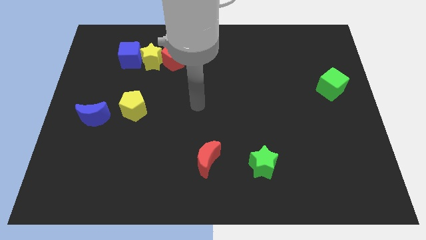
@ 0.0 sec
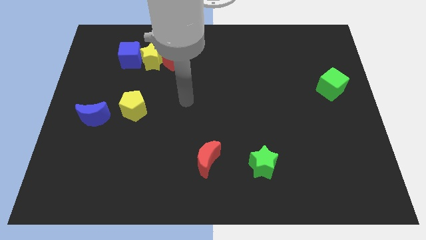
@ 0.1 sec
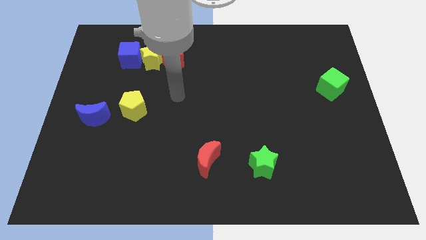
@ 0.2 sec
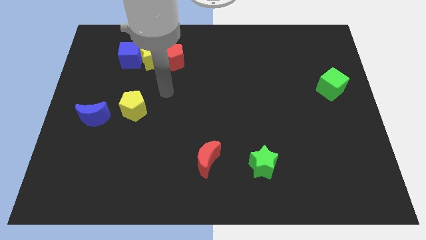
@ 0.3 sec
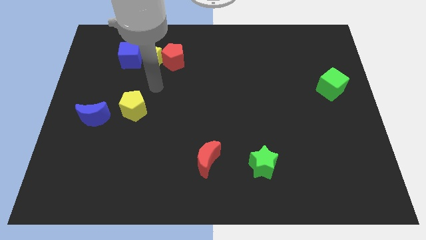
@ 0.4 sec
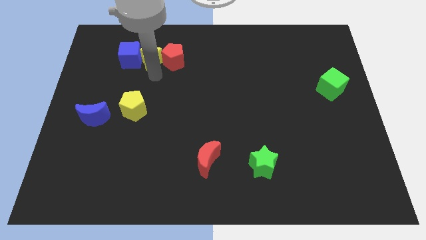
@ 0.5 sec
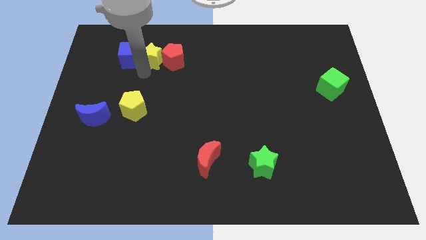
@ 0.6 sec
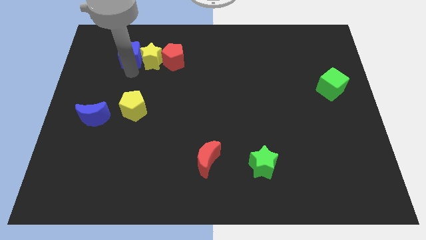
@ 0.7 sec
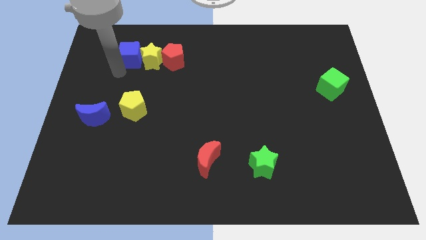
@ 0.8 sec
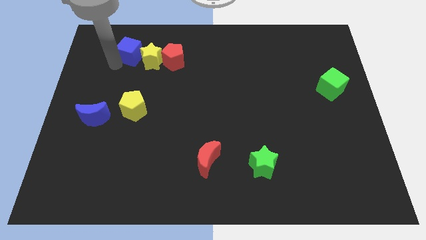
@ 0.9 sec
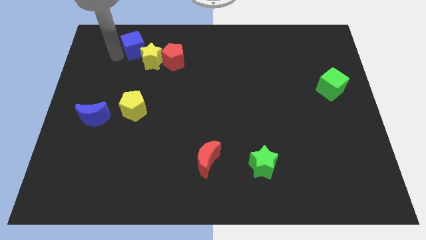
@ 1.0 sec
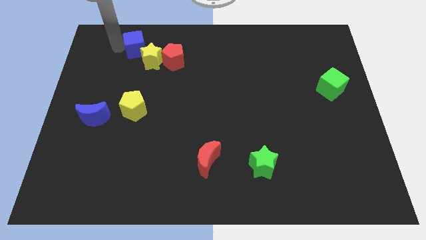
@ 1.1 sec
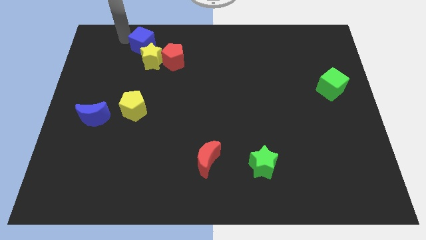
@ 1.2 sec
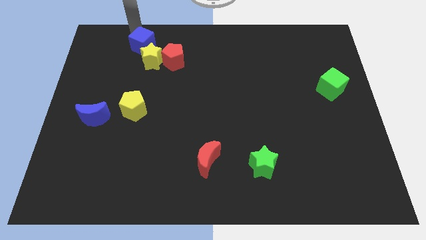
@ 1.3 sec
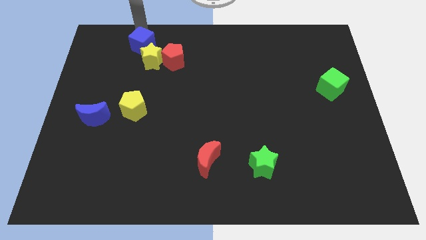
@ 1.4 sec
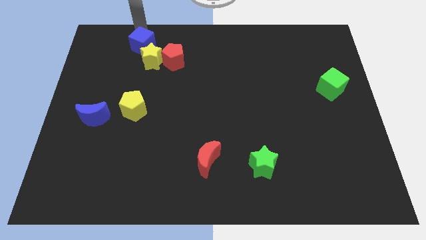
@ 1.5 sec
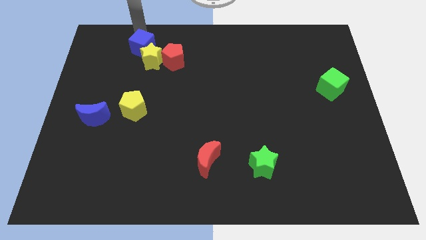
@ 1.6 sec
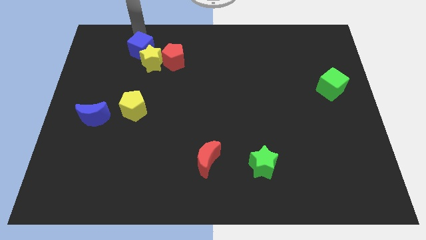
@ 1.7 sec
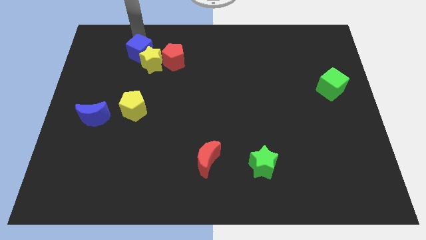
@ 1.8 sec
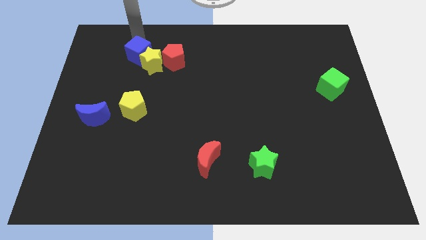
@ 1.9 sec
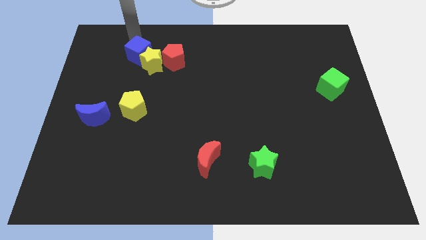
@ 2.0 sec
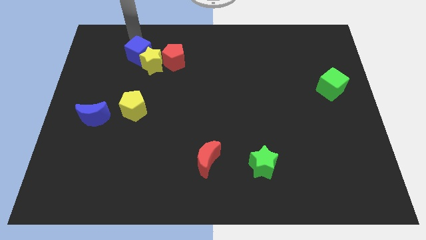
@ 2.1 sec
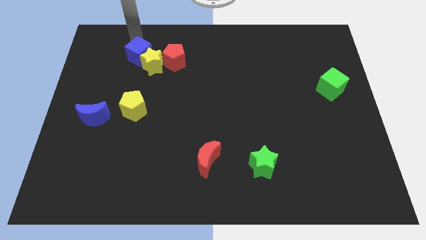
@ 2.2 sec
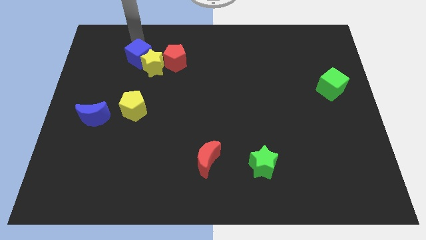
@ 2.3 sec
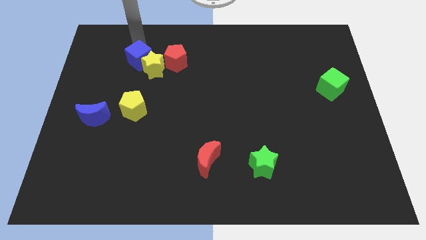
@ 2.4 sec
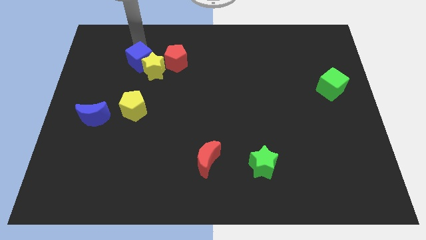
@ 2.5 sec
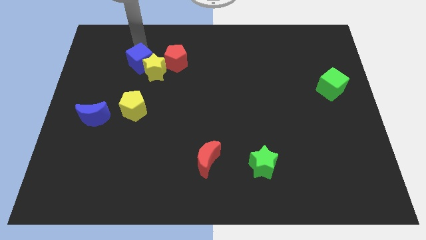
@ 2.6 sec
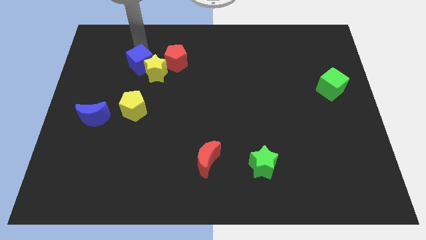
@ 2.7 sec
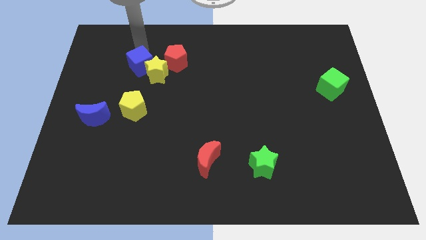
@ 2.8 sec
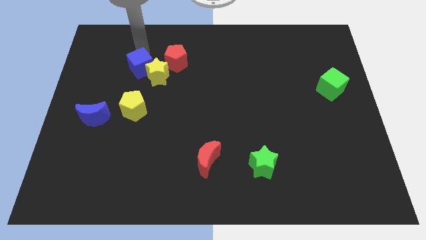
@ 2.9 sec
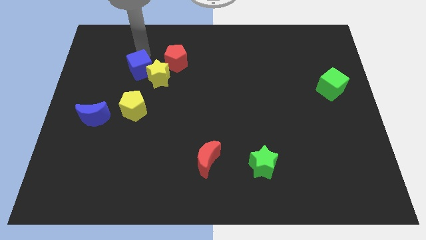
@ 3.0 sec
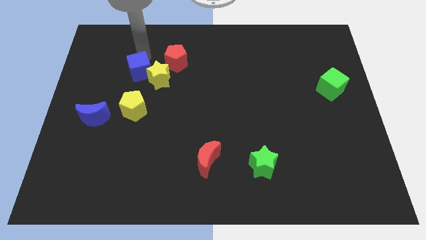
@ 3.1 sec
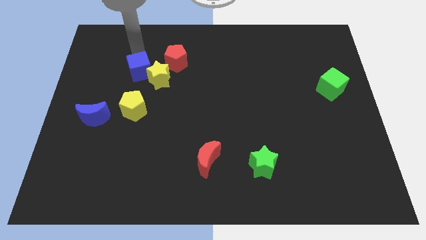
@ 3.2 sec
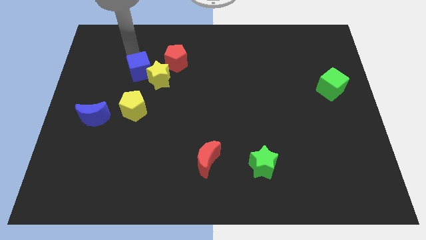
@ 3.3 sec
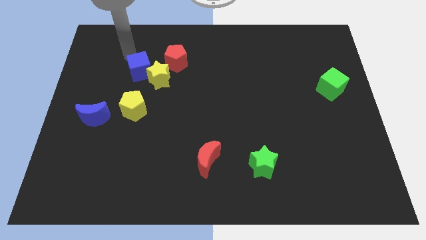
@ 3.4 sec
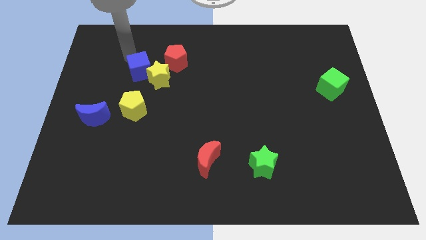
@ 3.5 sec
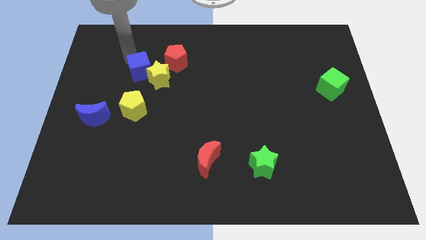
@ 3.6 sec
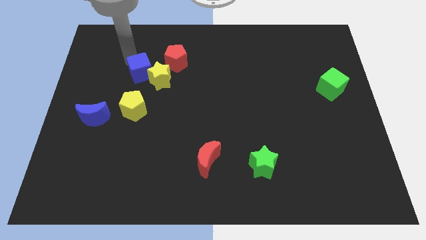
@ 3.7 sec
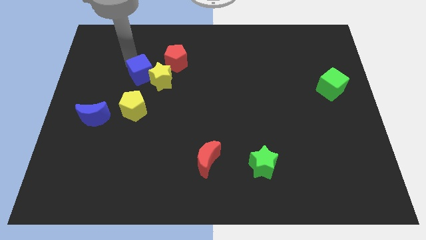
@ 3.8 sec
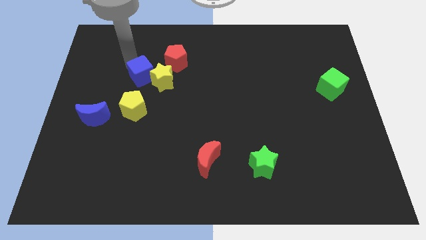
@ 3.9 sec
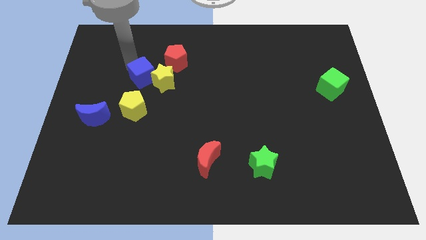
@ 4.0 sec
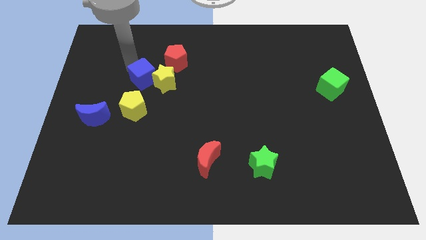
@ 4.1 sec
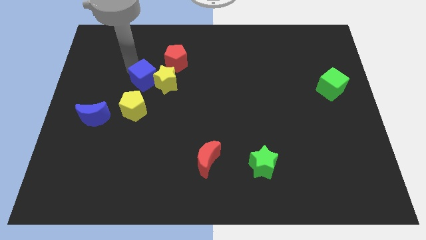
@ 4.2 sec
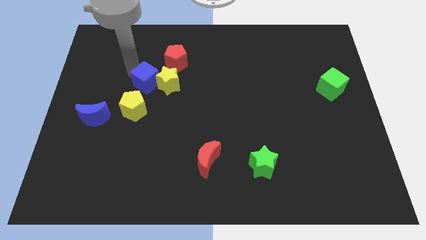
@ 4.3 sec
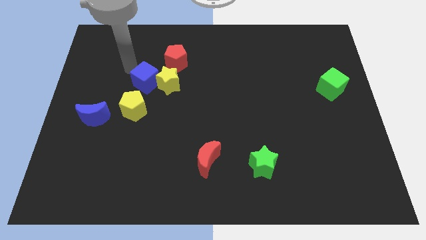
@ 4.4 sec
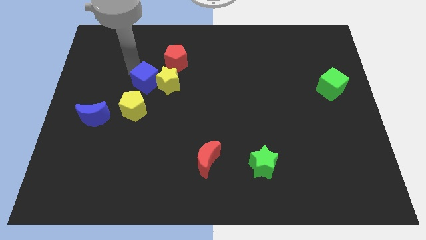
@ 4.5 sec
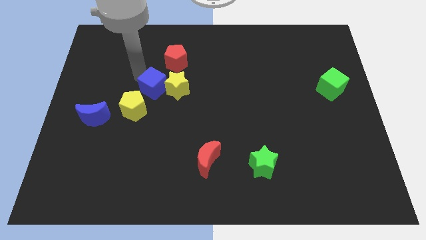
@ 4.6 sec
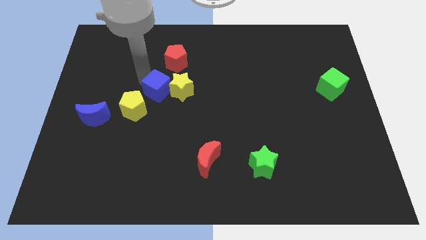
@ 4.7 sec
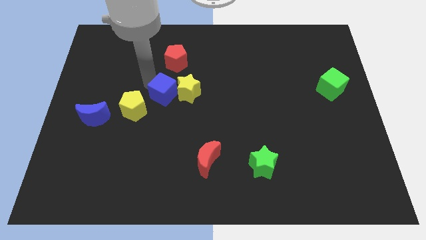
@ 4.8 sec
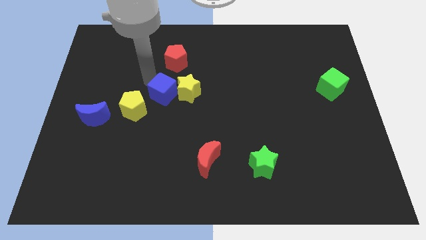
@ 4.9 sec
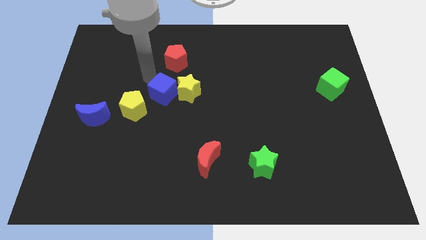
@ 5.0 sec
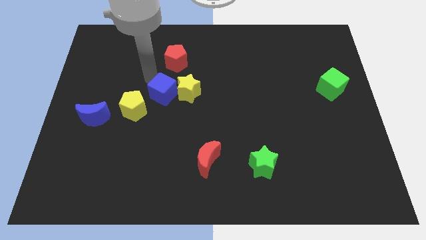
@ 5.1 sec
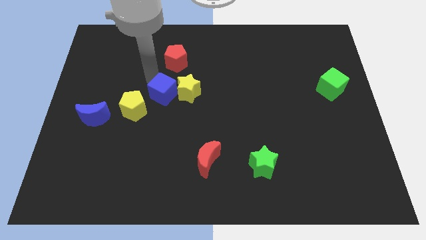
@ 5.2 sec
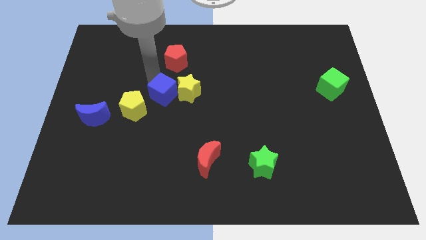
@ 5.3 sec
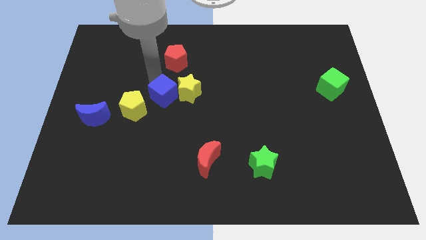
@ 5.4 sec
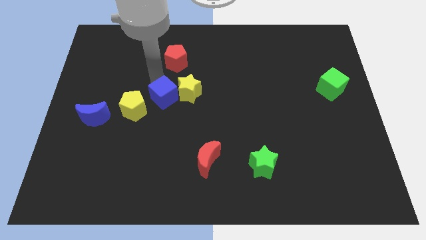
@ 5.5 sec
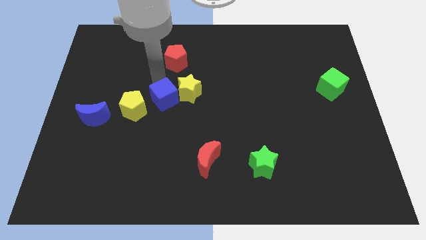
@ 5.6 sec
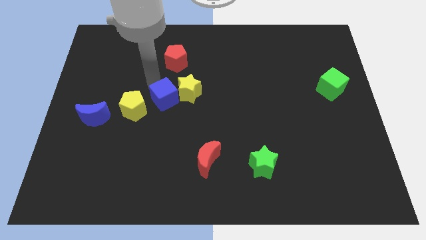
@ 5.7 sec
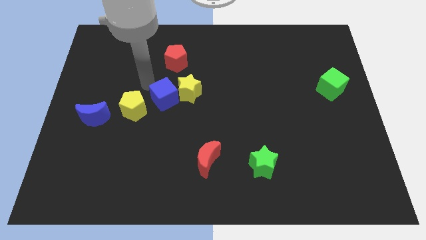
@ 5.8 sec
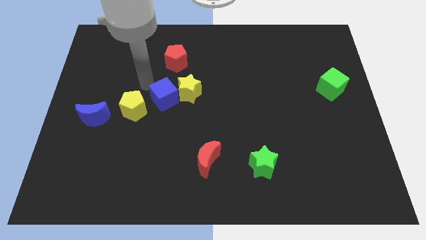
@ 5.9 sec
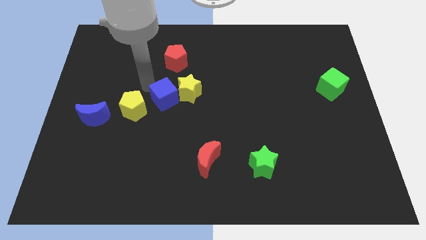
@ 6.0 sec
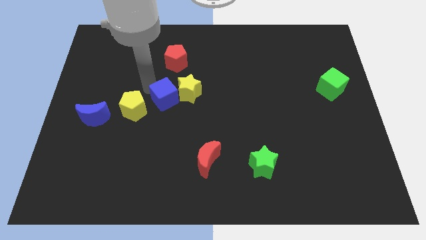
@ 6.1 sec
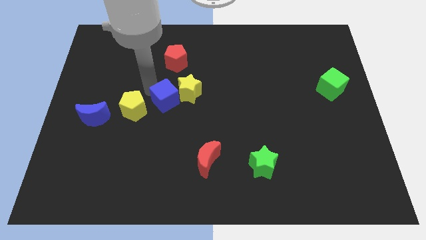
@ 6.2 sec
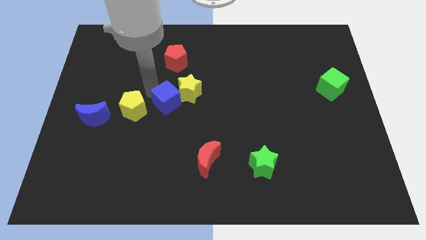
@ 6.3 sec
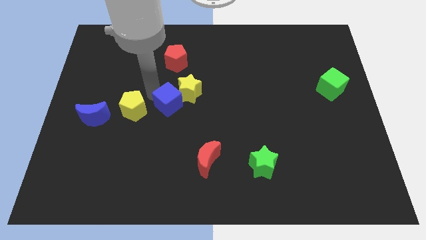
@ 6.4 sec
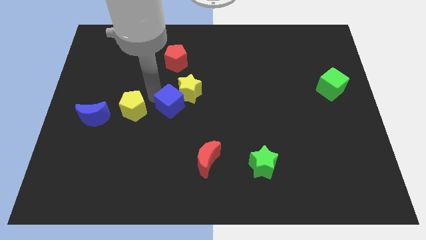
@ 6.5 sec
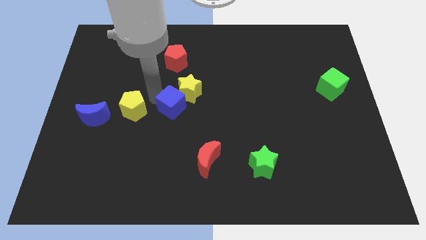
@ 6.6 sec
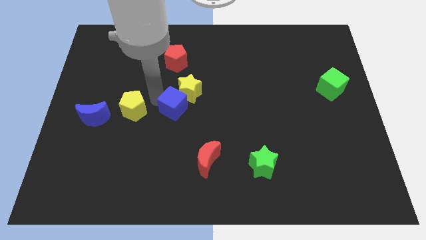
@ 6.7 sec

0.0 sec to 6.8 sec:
slide the blue cube diagonally downwards and to the right

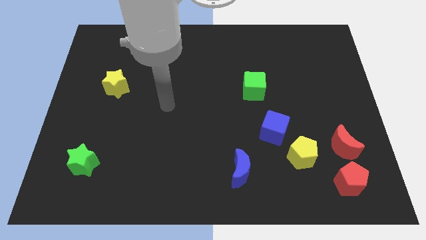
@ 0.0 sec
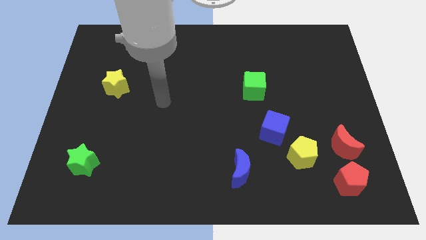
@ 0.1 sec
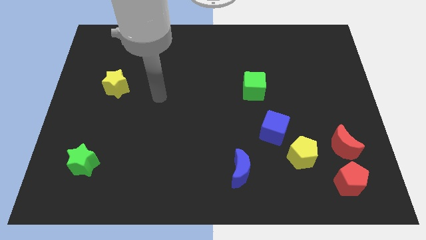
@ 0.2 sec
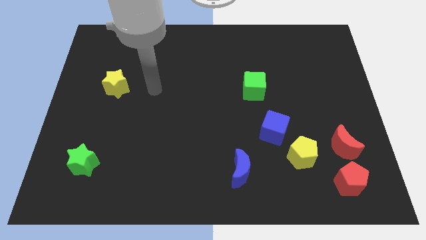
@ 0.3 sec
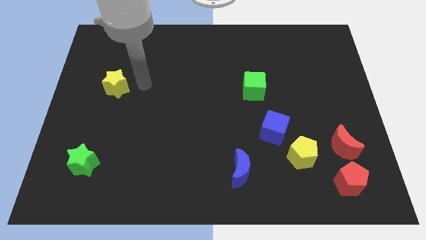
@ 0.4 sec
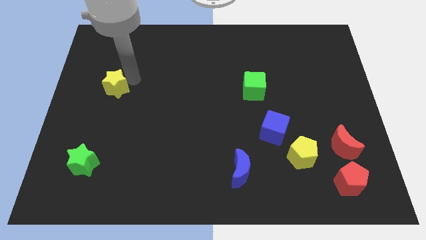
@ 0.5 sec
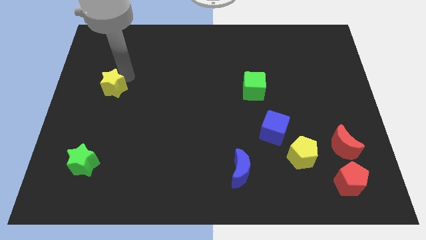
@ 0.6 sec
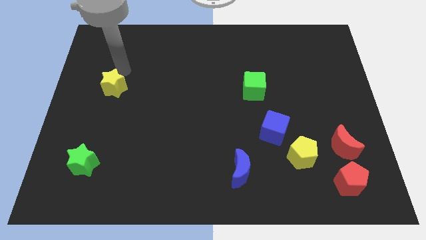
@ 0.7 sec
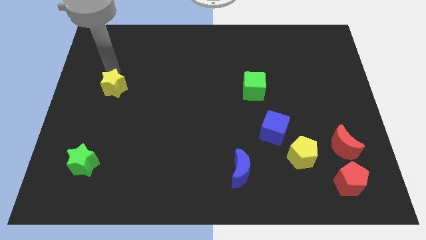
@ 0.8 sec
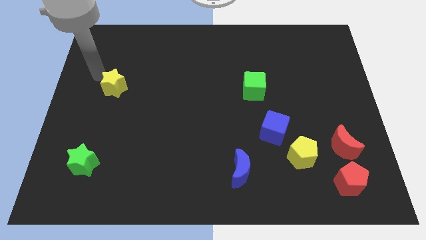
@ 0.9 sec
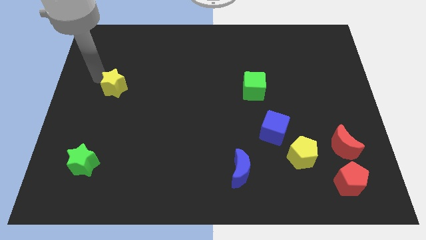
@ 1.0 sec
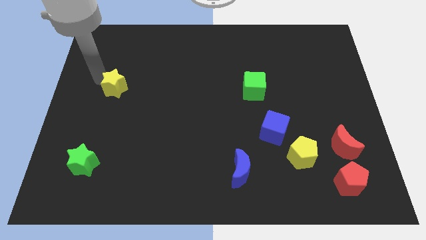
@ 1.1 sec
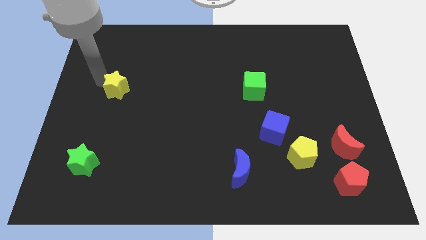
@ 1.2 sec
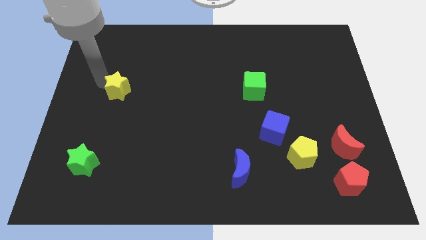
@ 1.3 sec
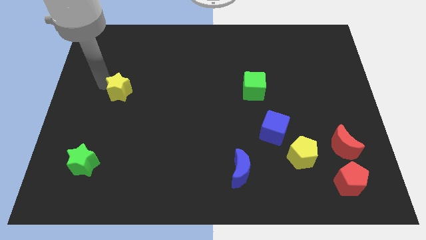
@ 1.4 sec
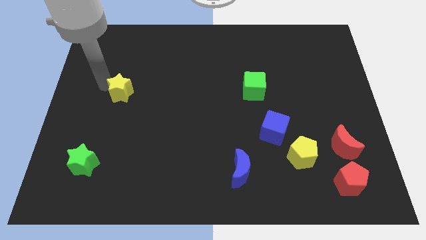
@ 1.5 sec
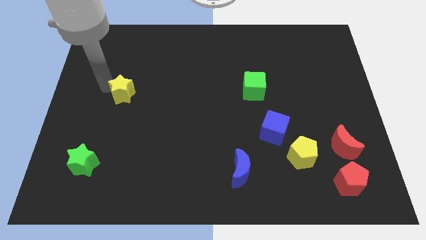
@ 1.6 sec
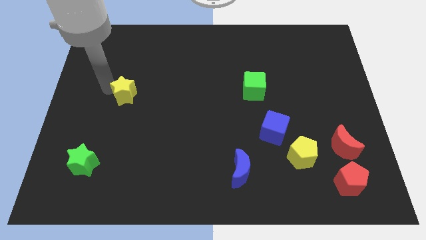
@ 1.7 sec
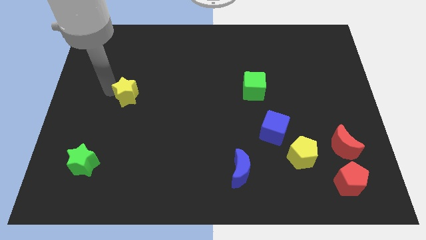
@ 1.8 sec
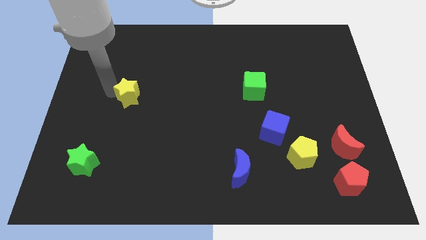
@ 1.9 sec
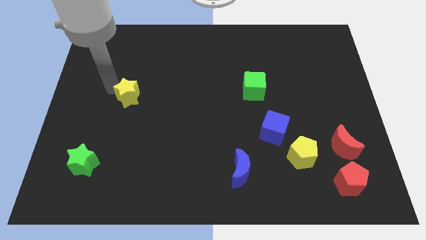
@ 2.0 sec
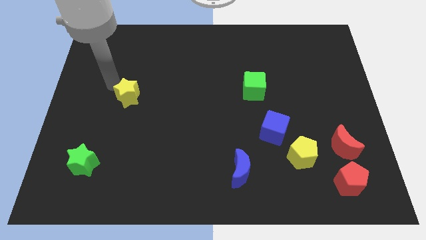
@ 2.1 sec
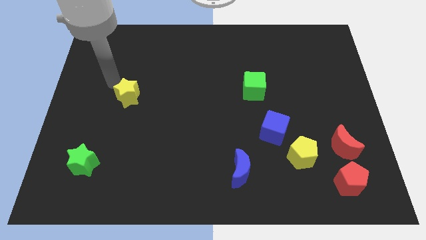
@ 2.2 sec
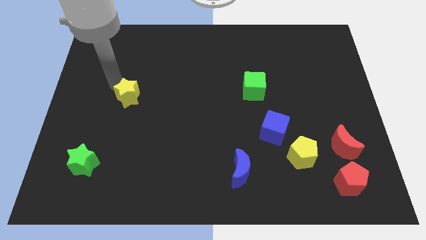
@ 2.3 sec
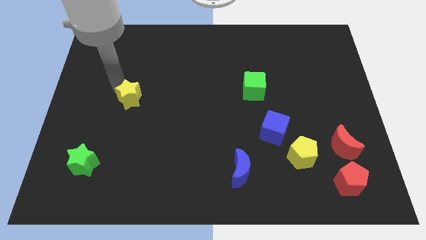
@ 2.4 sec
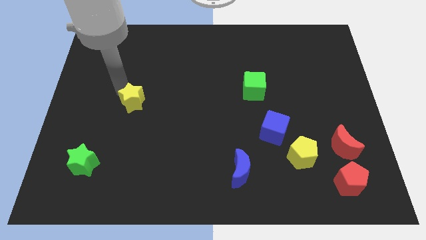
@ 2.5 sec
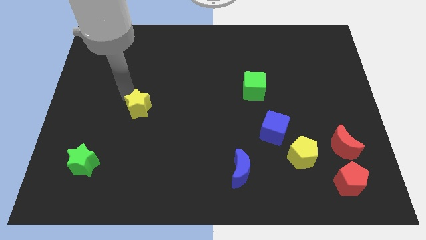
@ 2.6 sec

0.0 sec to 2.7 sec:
slightly slide the yellow star downwards and then to the right
